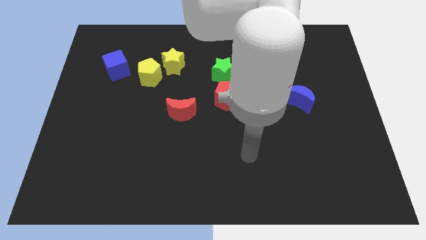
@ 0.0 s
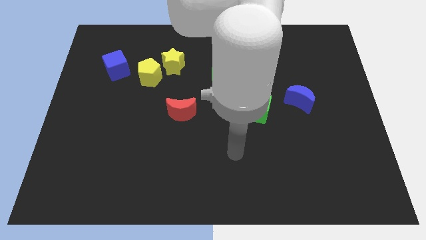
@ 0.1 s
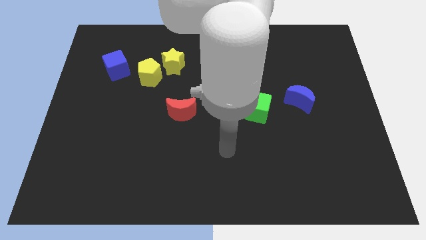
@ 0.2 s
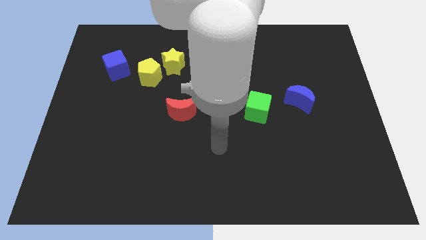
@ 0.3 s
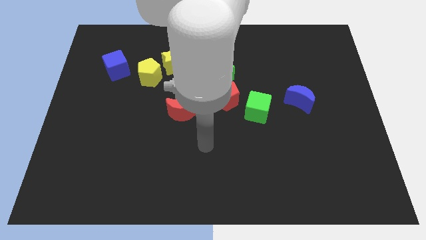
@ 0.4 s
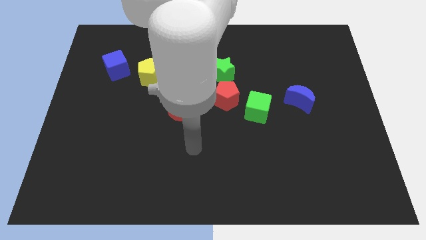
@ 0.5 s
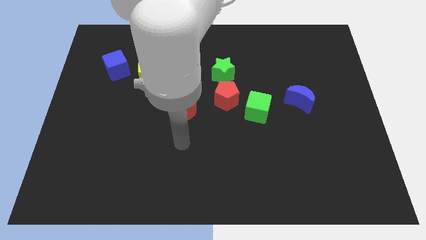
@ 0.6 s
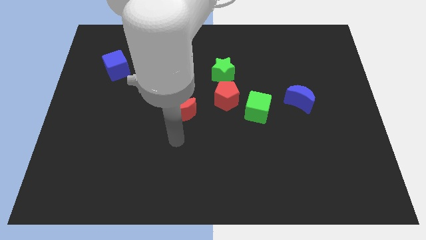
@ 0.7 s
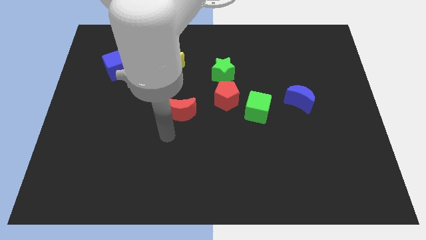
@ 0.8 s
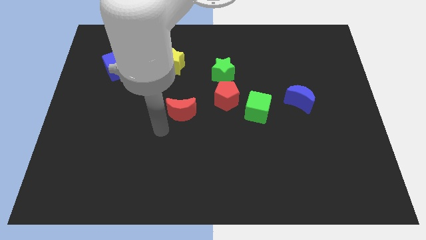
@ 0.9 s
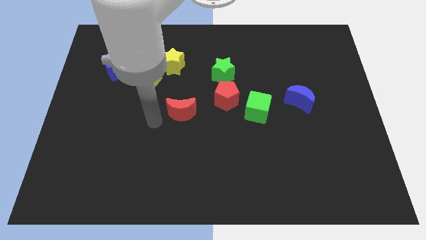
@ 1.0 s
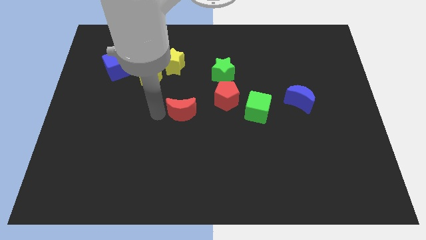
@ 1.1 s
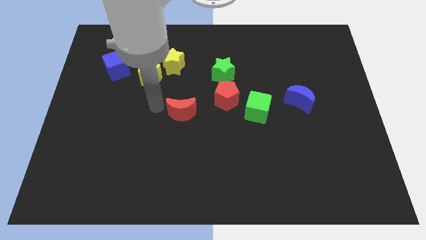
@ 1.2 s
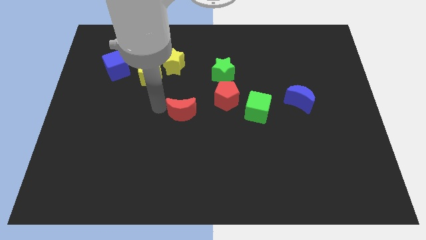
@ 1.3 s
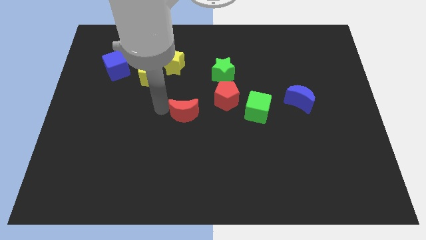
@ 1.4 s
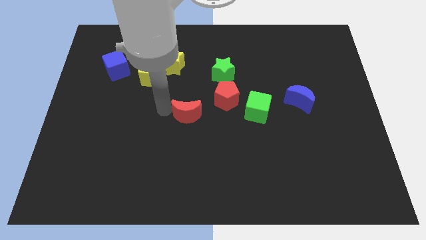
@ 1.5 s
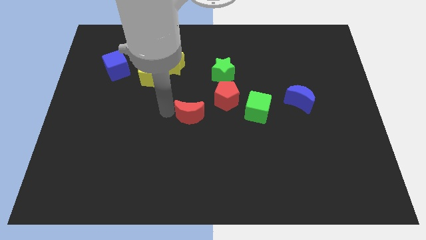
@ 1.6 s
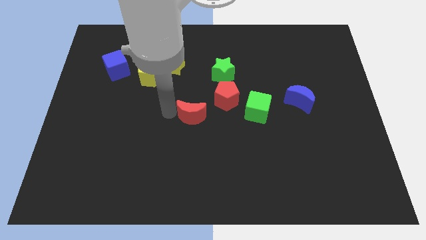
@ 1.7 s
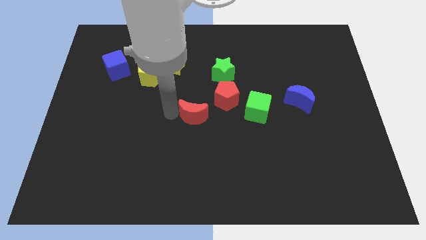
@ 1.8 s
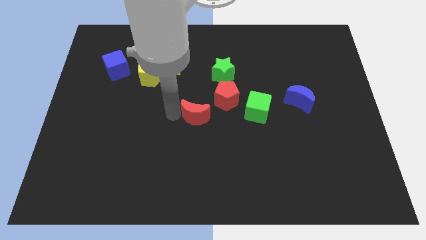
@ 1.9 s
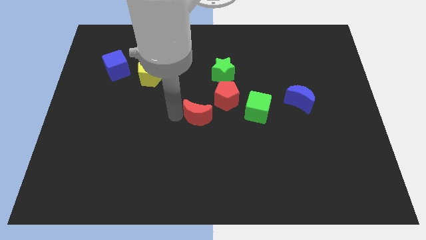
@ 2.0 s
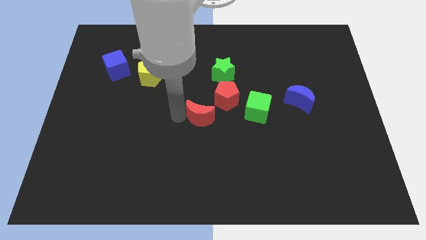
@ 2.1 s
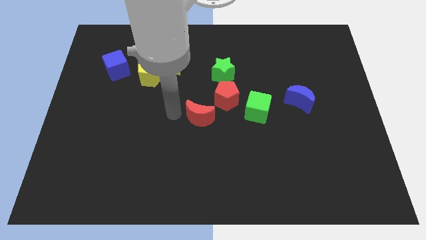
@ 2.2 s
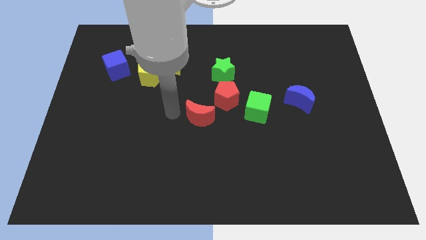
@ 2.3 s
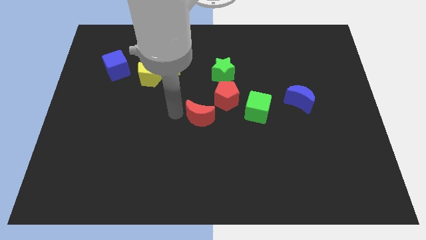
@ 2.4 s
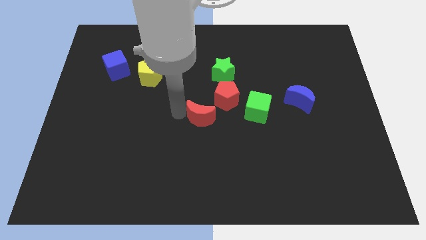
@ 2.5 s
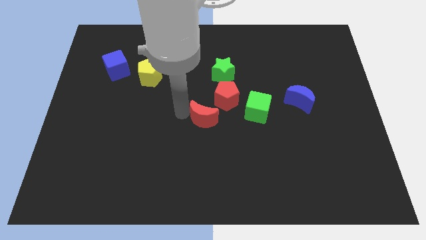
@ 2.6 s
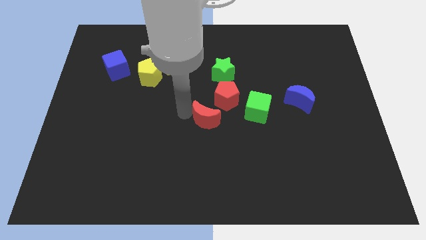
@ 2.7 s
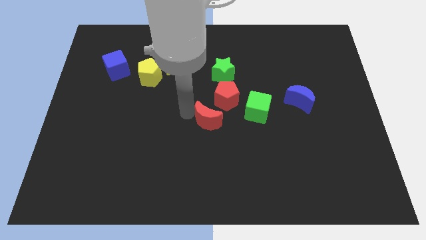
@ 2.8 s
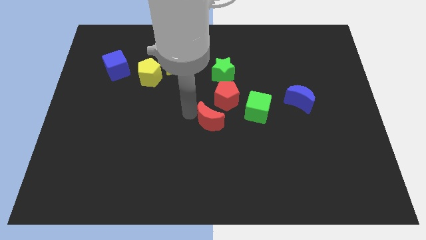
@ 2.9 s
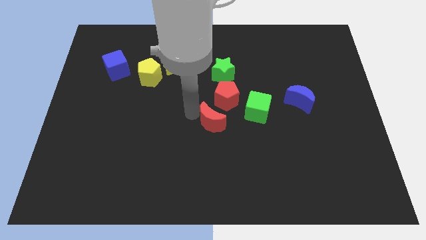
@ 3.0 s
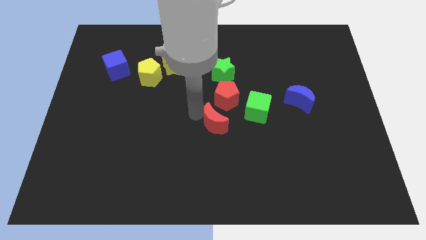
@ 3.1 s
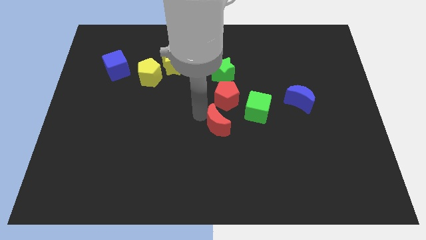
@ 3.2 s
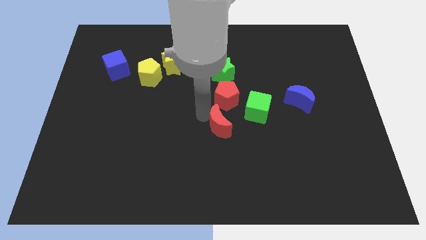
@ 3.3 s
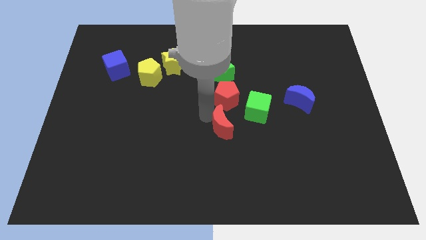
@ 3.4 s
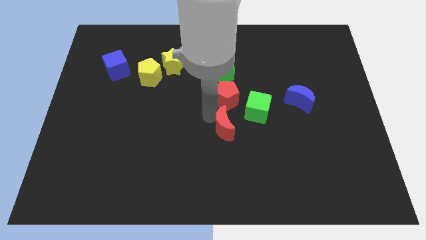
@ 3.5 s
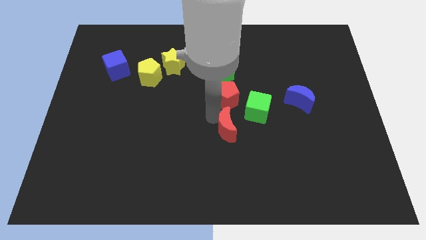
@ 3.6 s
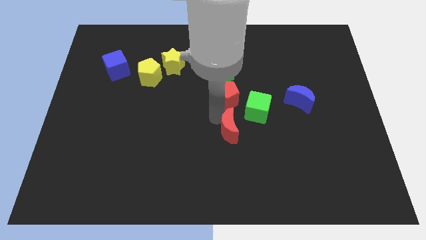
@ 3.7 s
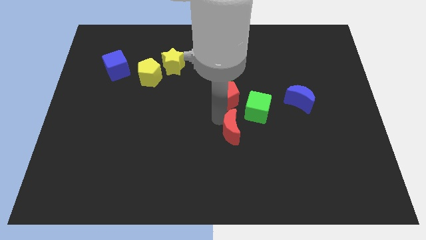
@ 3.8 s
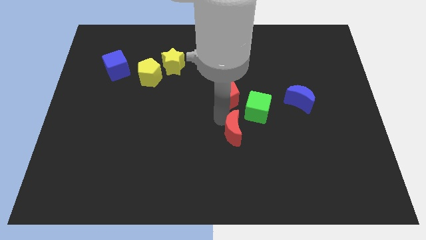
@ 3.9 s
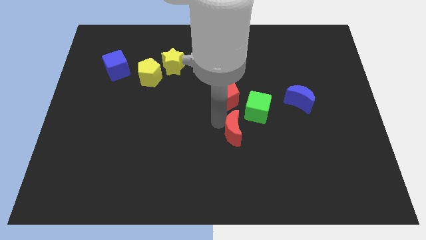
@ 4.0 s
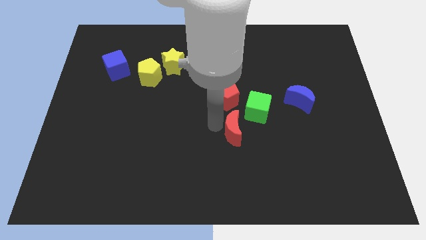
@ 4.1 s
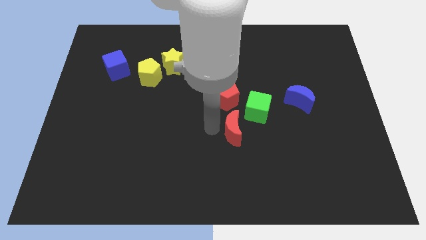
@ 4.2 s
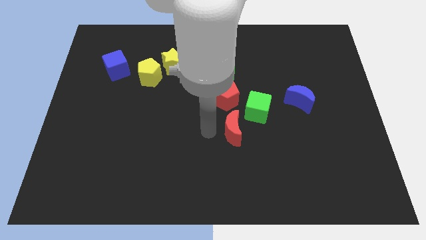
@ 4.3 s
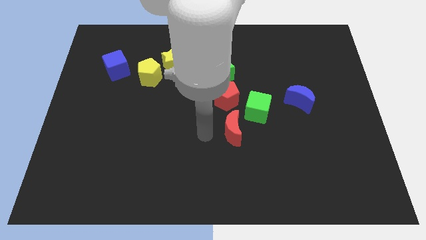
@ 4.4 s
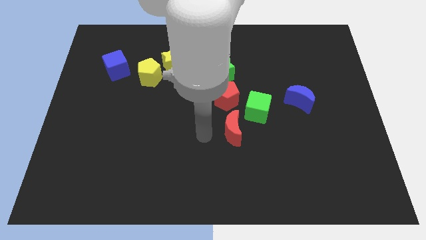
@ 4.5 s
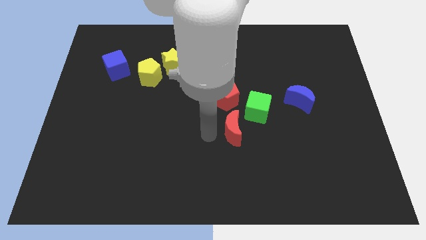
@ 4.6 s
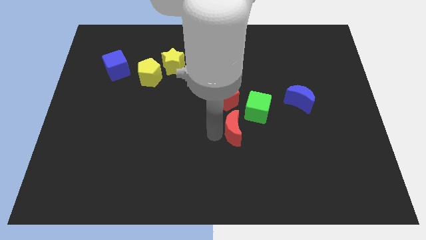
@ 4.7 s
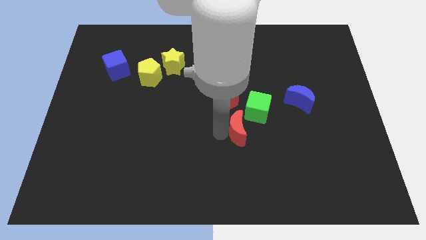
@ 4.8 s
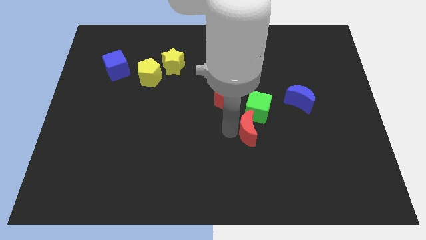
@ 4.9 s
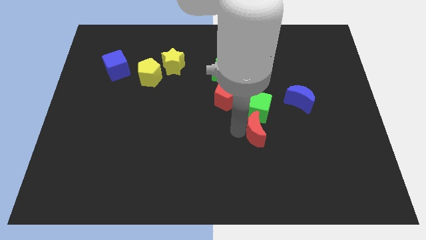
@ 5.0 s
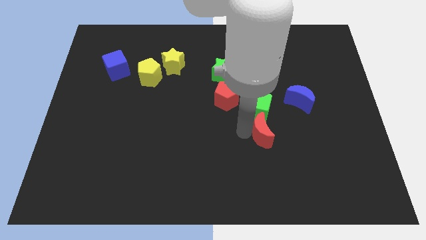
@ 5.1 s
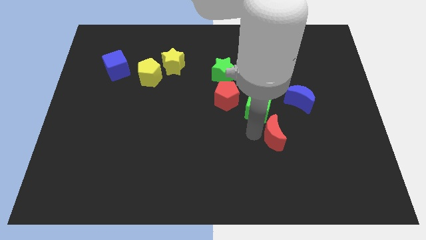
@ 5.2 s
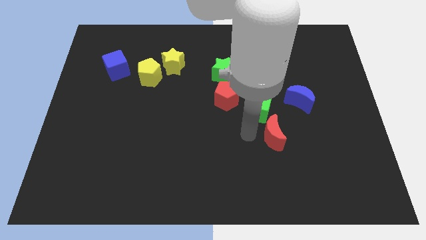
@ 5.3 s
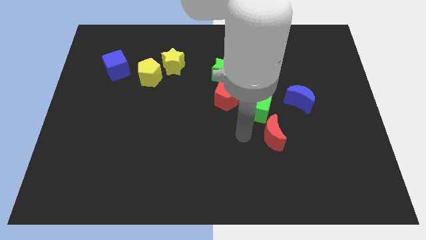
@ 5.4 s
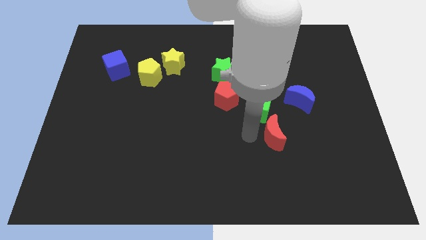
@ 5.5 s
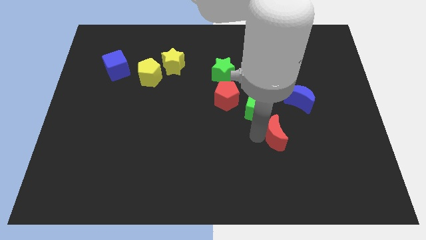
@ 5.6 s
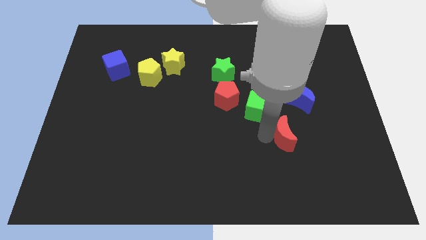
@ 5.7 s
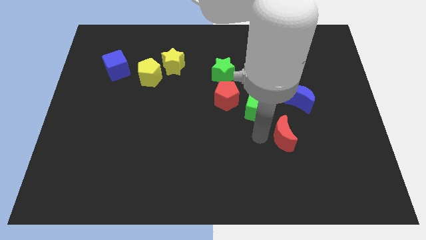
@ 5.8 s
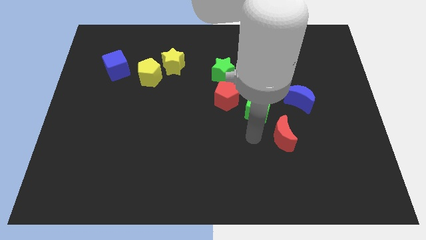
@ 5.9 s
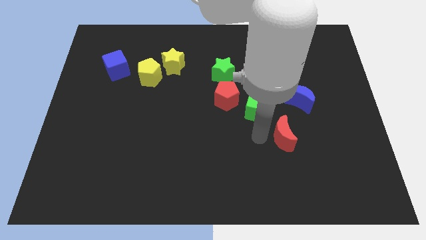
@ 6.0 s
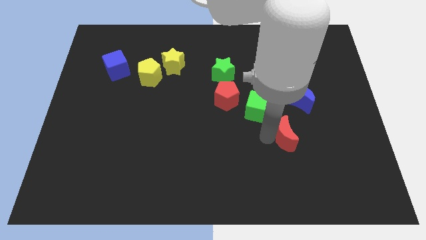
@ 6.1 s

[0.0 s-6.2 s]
put the red moon below the blue moon

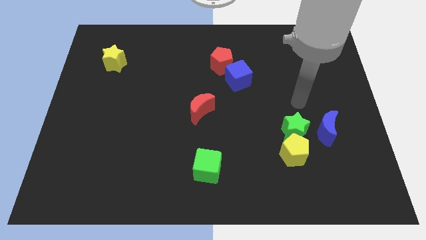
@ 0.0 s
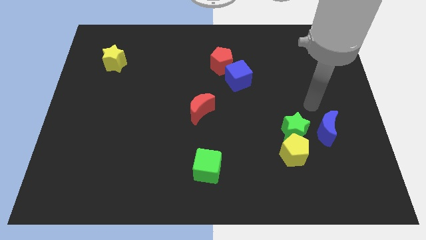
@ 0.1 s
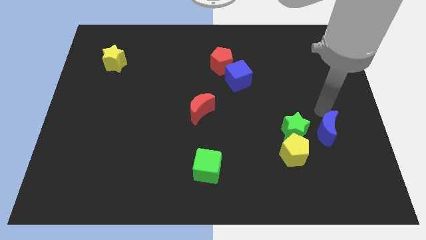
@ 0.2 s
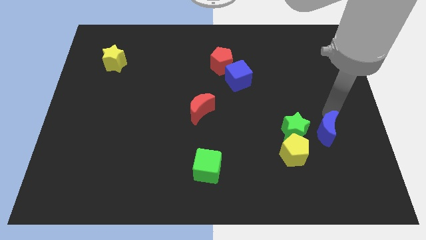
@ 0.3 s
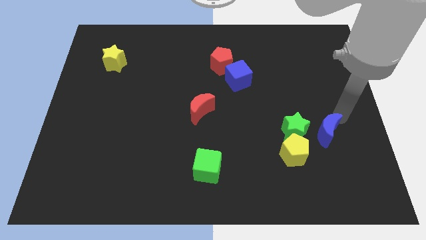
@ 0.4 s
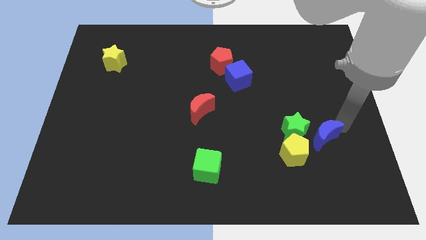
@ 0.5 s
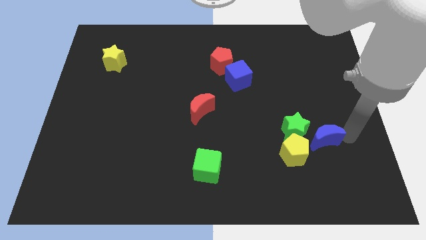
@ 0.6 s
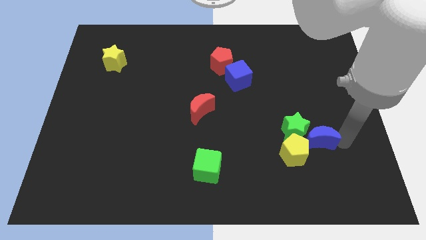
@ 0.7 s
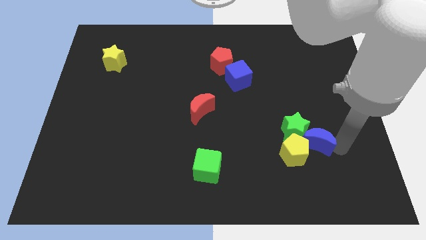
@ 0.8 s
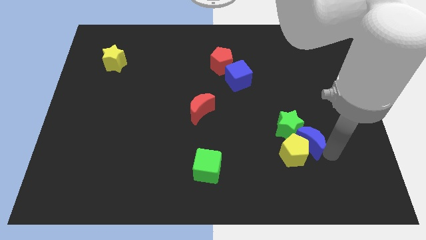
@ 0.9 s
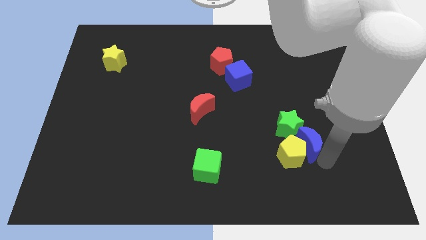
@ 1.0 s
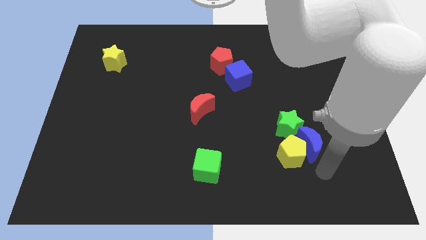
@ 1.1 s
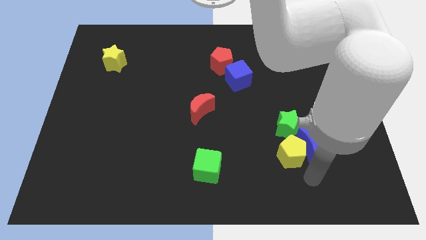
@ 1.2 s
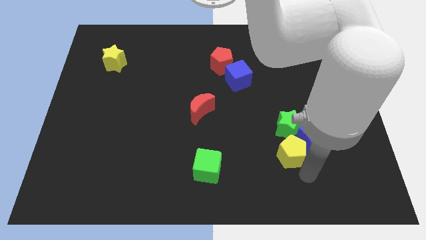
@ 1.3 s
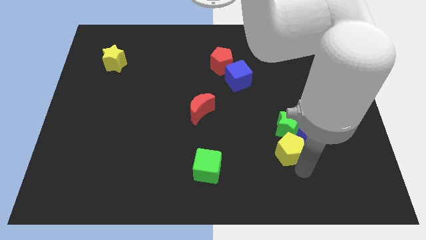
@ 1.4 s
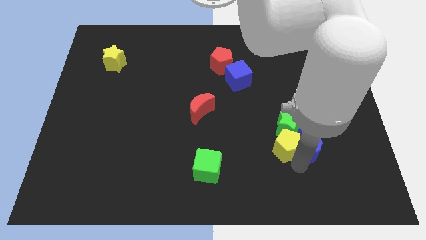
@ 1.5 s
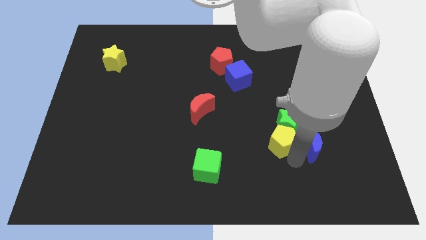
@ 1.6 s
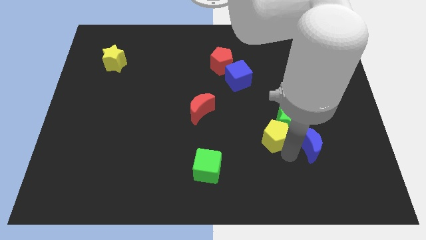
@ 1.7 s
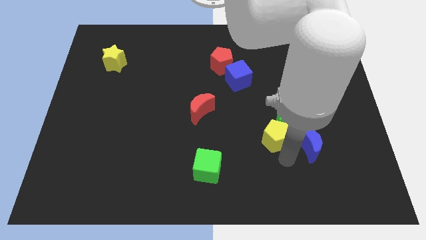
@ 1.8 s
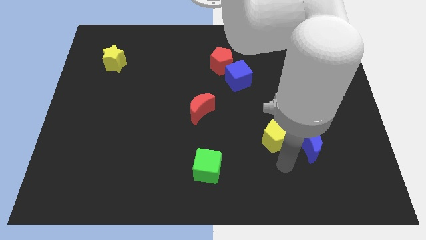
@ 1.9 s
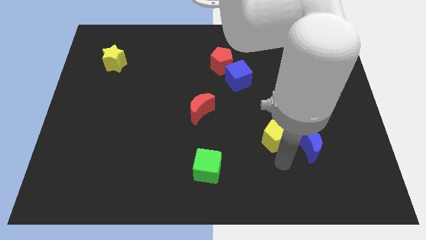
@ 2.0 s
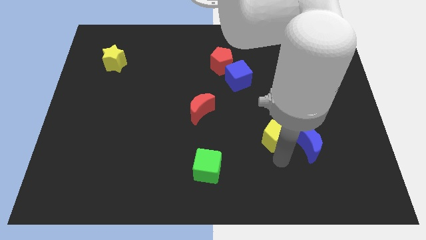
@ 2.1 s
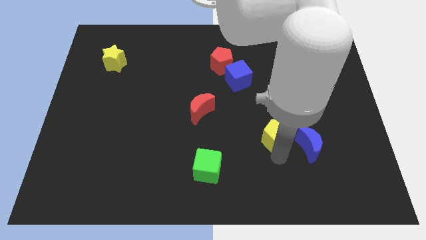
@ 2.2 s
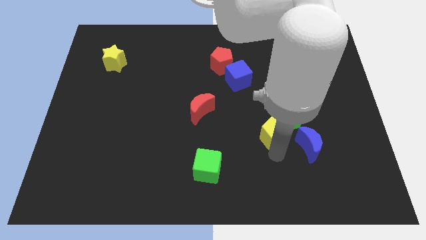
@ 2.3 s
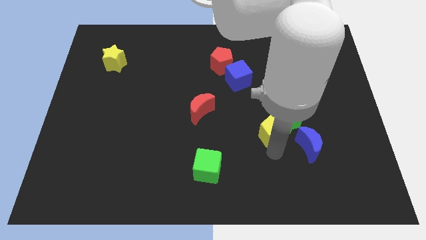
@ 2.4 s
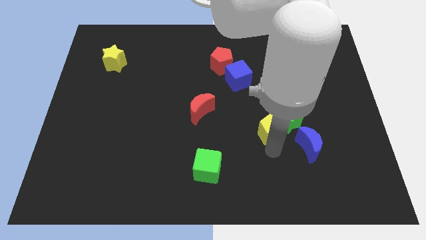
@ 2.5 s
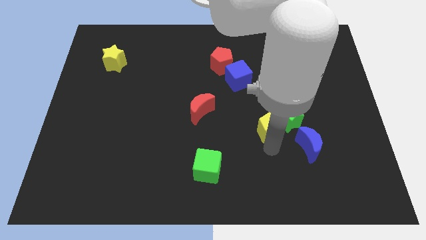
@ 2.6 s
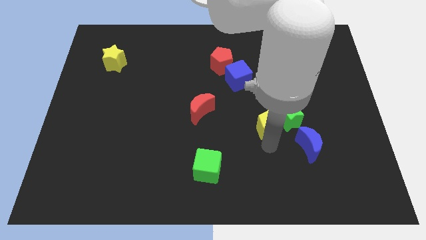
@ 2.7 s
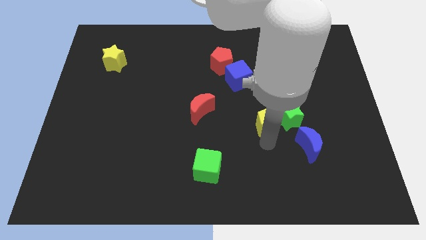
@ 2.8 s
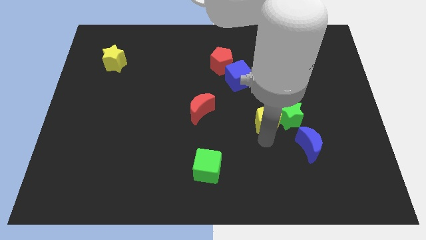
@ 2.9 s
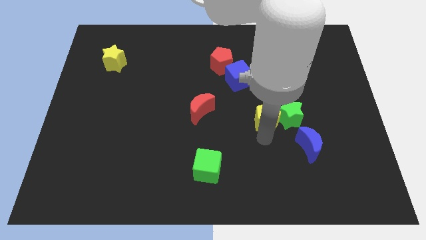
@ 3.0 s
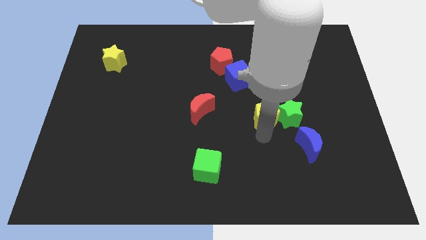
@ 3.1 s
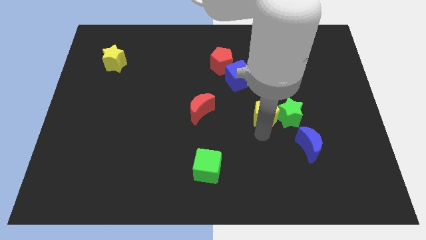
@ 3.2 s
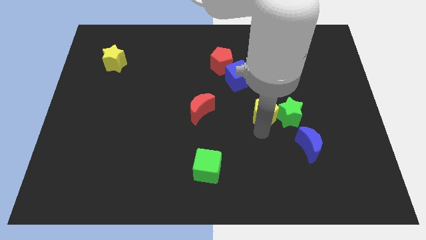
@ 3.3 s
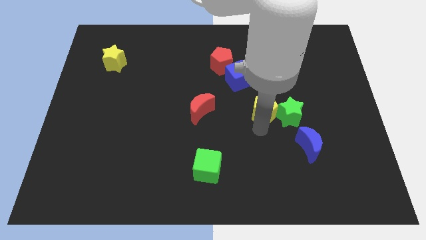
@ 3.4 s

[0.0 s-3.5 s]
slide the yellow pentagon to the bottom right side of the blue cube
